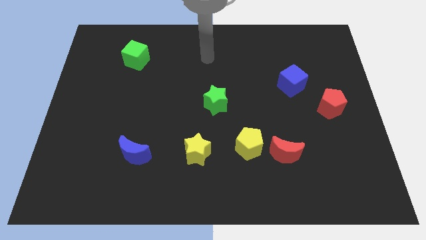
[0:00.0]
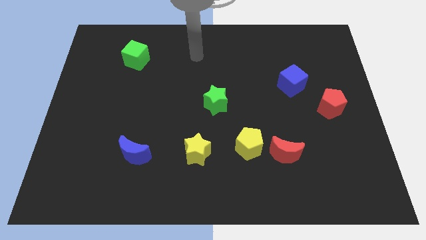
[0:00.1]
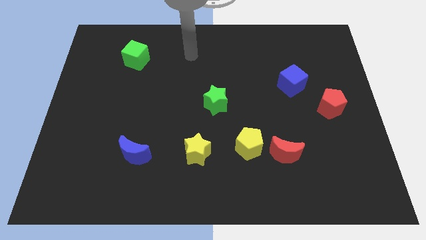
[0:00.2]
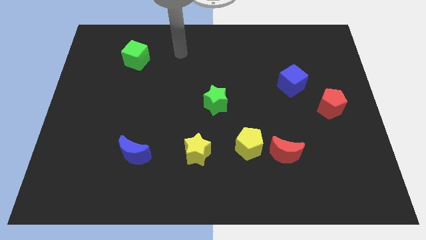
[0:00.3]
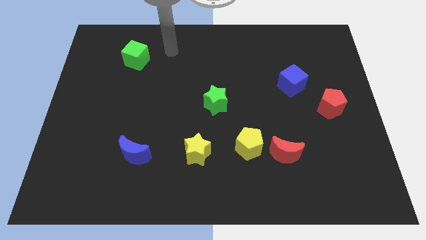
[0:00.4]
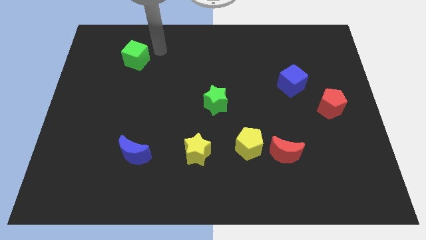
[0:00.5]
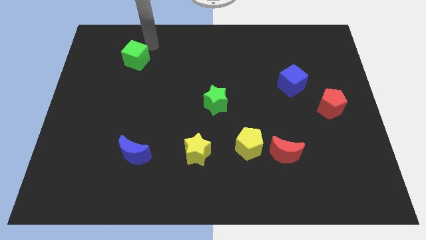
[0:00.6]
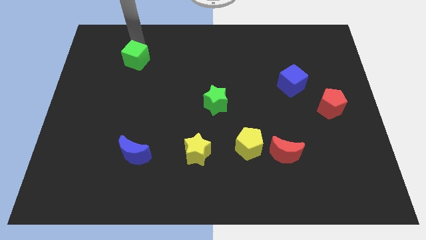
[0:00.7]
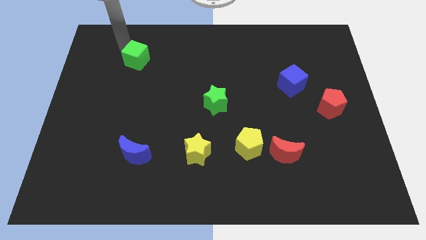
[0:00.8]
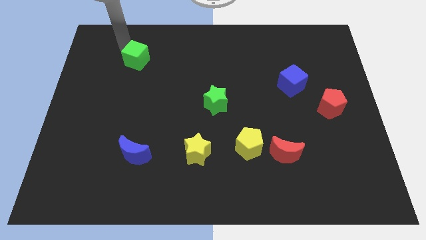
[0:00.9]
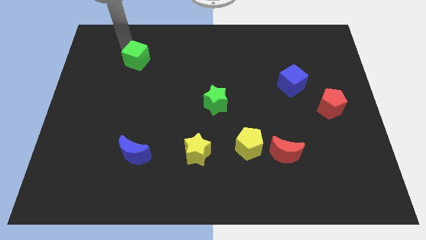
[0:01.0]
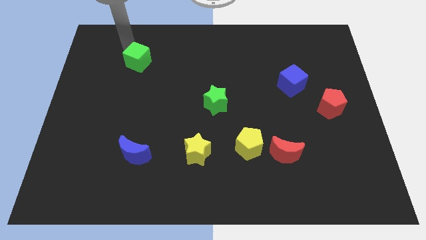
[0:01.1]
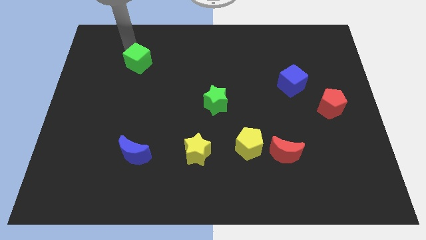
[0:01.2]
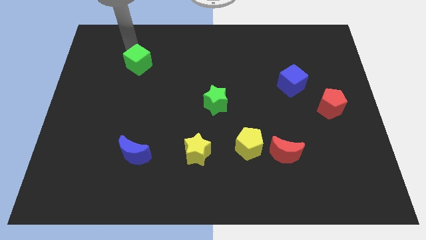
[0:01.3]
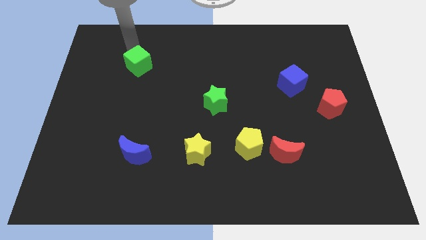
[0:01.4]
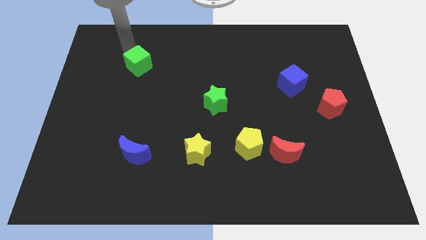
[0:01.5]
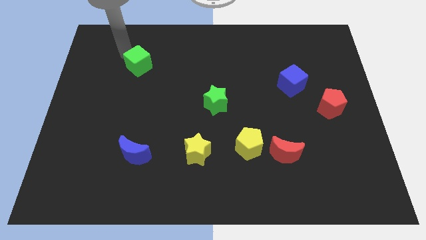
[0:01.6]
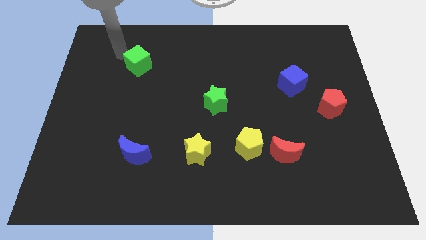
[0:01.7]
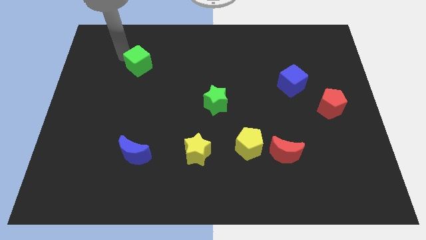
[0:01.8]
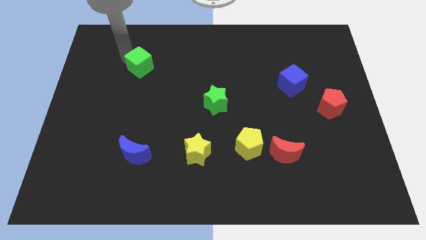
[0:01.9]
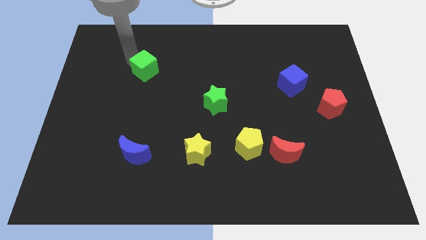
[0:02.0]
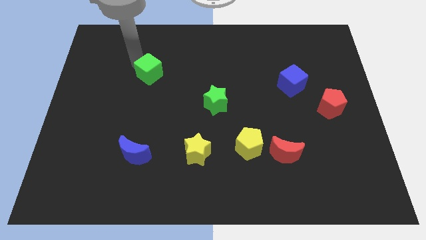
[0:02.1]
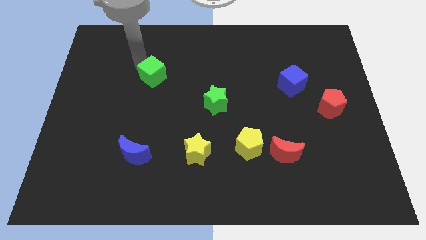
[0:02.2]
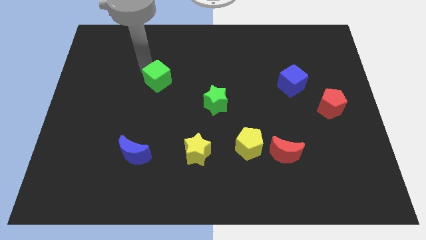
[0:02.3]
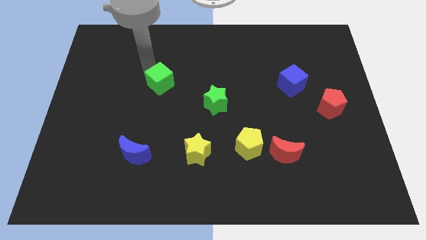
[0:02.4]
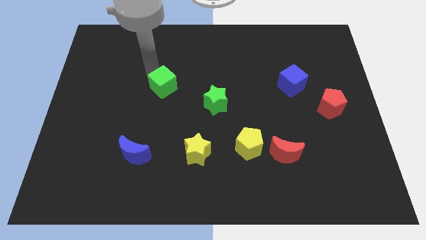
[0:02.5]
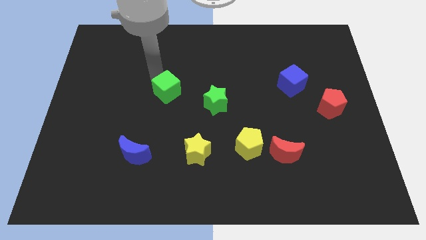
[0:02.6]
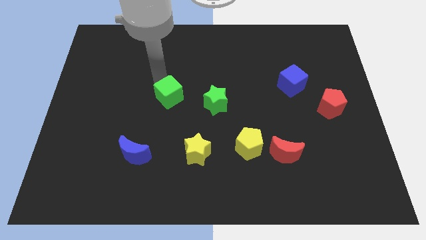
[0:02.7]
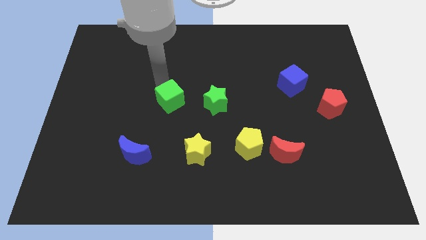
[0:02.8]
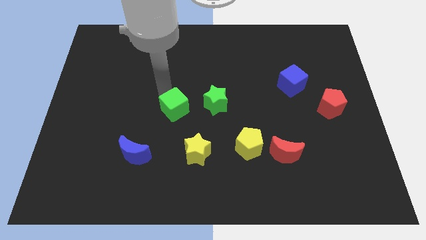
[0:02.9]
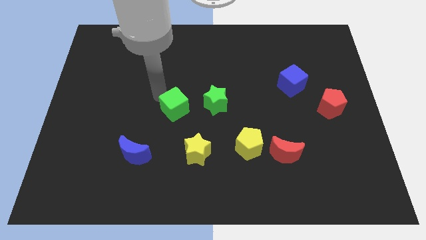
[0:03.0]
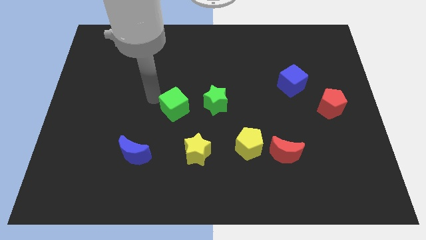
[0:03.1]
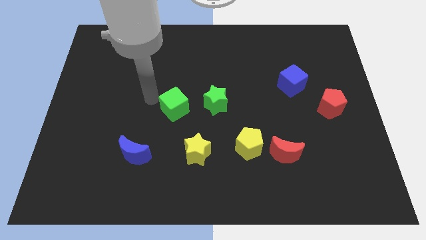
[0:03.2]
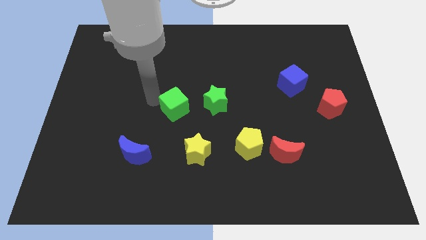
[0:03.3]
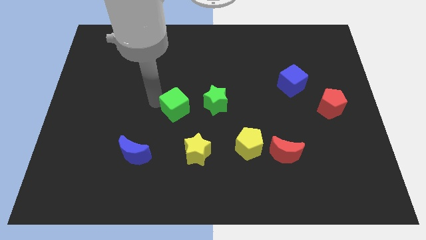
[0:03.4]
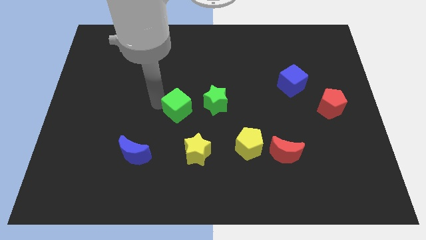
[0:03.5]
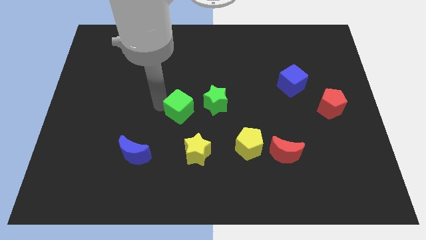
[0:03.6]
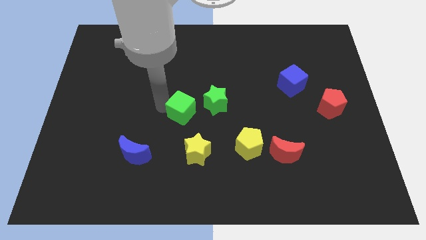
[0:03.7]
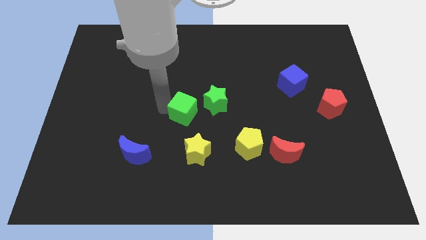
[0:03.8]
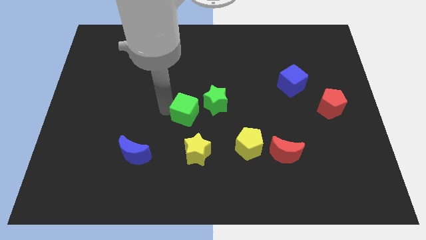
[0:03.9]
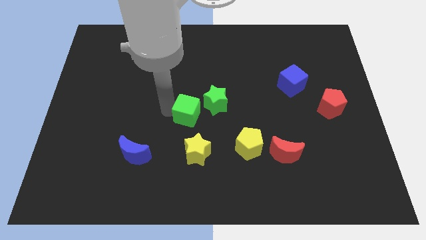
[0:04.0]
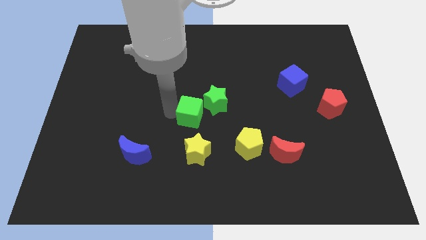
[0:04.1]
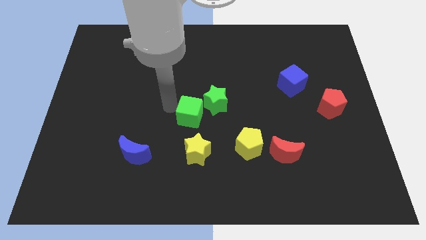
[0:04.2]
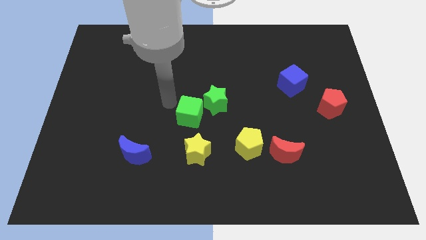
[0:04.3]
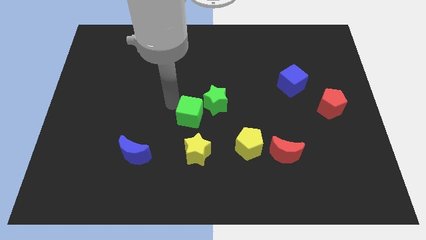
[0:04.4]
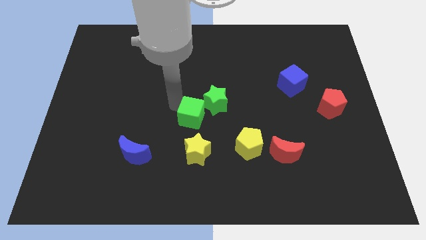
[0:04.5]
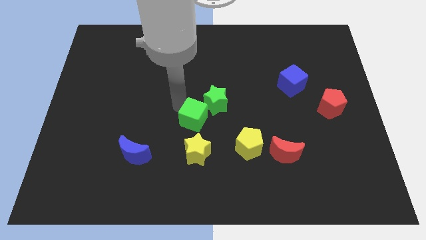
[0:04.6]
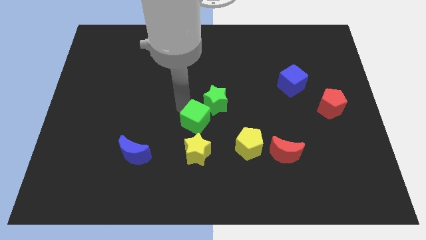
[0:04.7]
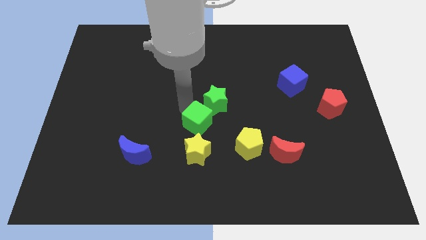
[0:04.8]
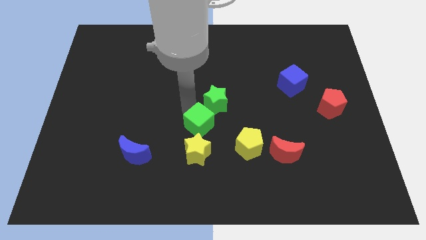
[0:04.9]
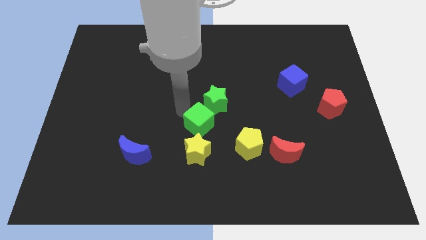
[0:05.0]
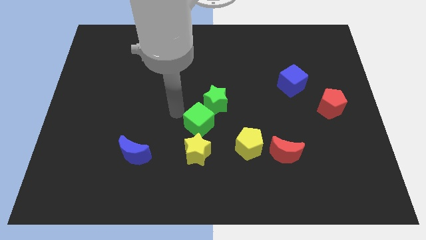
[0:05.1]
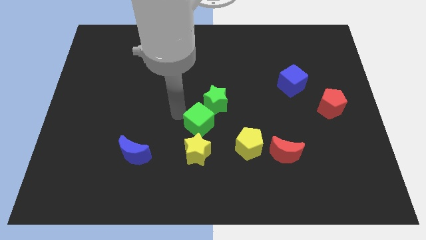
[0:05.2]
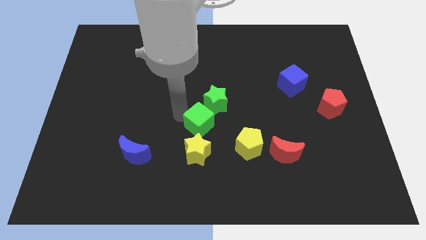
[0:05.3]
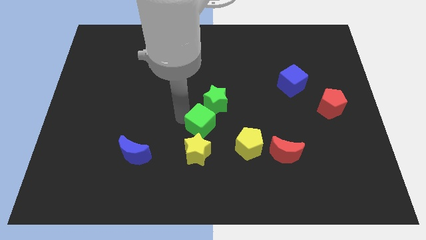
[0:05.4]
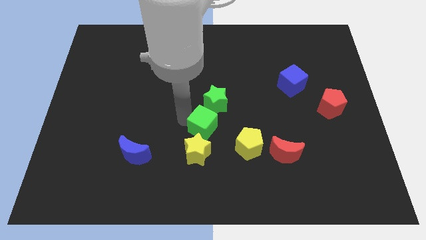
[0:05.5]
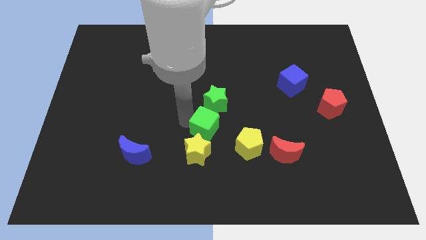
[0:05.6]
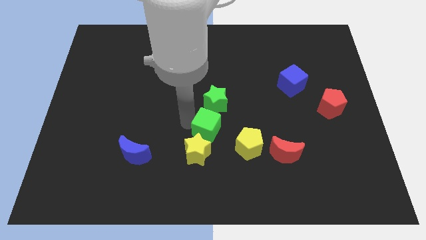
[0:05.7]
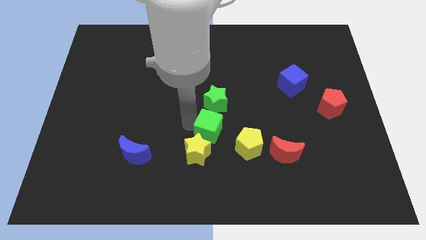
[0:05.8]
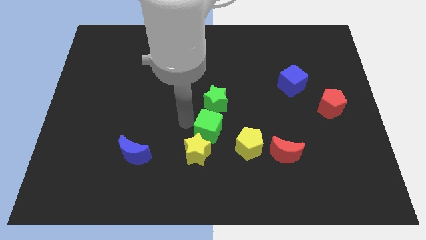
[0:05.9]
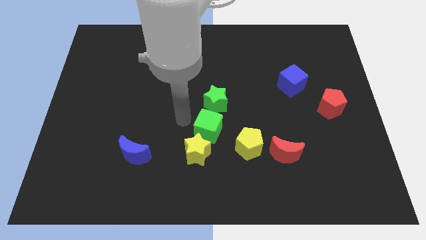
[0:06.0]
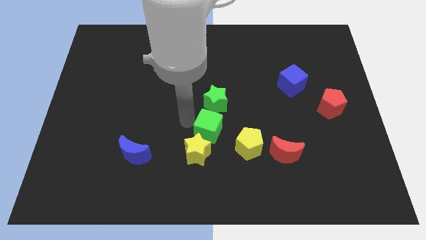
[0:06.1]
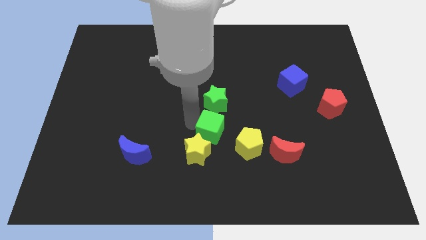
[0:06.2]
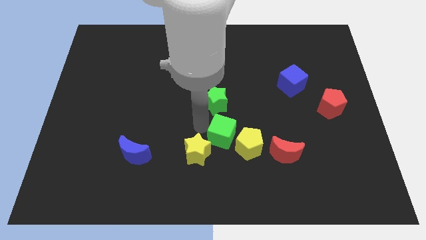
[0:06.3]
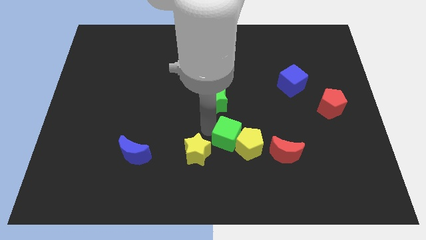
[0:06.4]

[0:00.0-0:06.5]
move the green cube next to the yellow pentagon

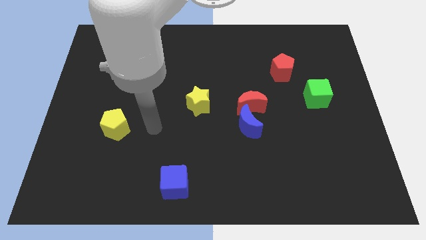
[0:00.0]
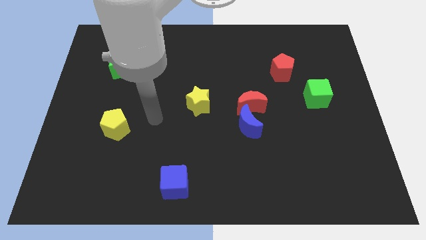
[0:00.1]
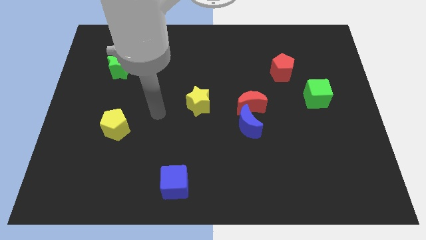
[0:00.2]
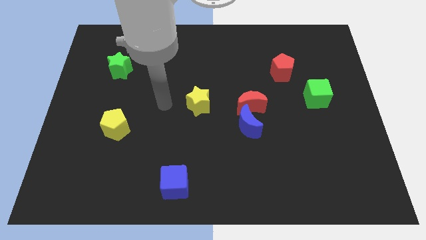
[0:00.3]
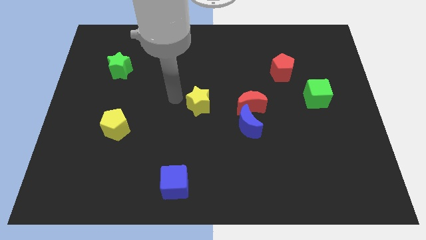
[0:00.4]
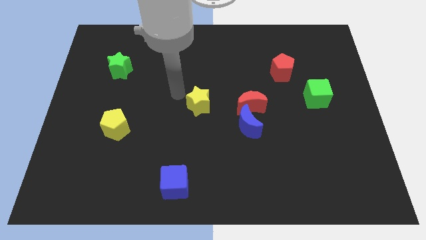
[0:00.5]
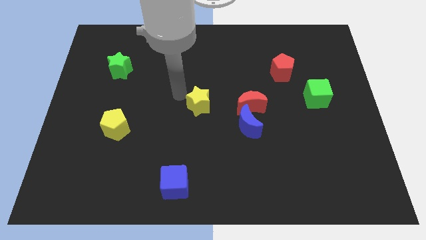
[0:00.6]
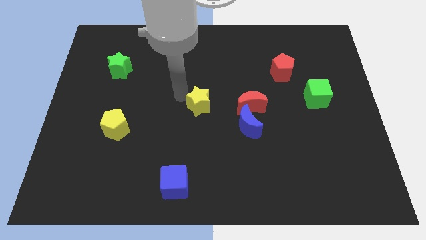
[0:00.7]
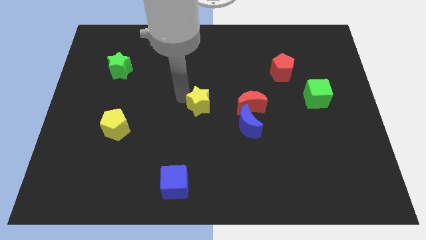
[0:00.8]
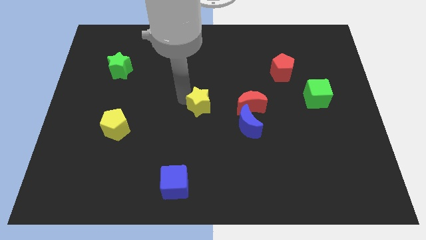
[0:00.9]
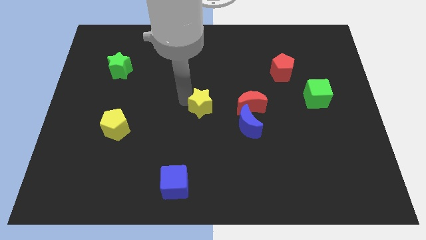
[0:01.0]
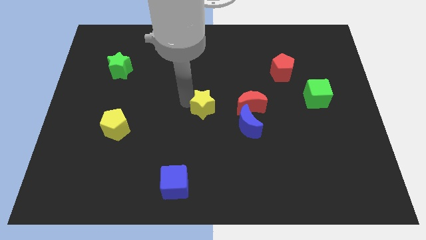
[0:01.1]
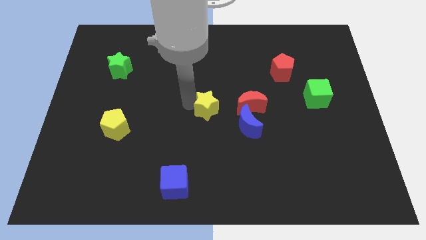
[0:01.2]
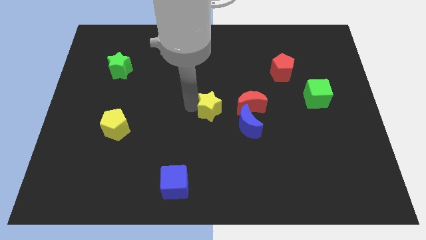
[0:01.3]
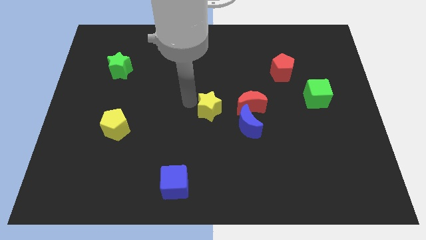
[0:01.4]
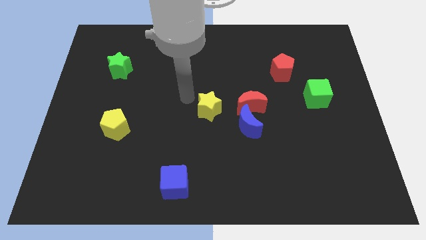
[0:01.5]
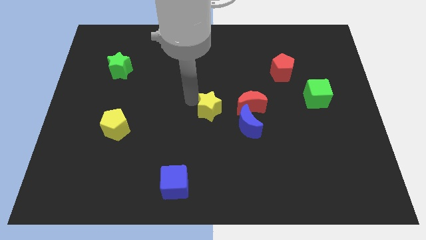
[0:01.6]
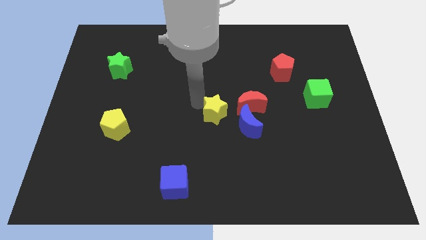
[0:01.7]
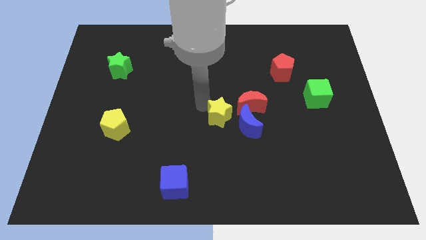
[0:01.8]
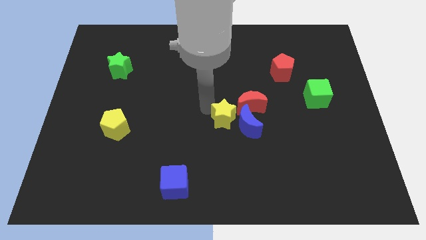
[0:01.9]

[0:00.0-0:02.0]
put the yellow star to the blue moon
